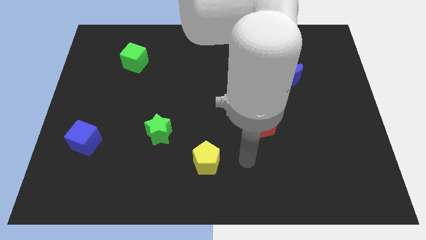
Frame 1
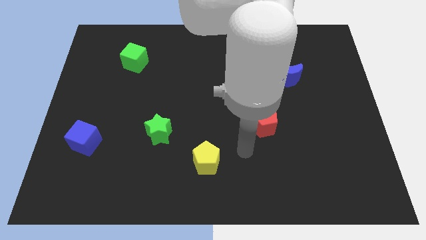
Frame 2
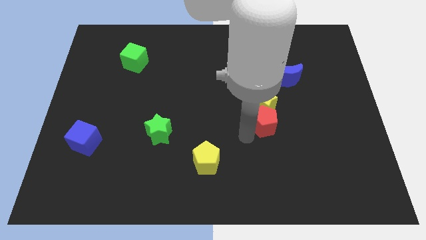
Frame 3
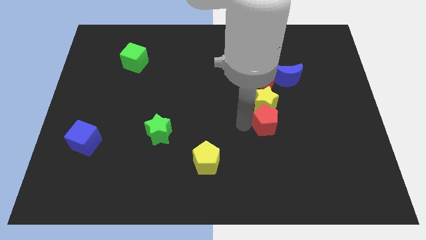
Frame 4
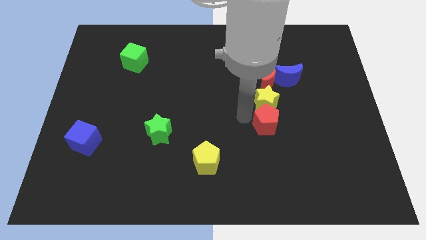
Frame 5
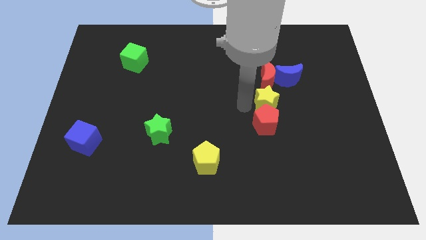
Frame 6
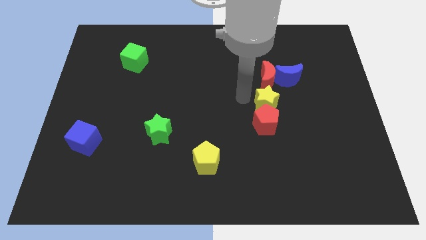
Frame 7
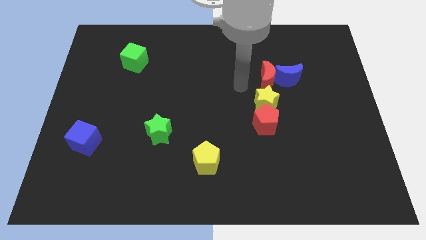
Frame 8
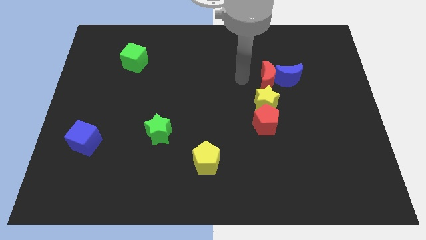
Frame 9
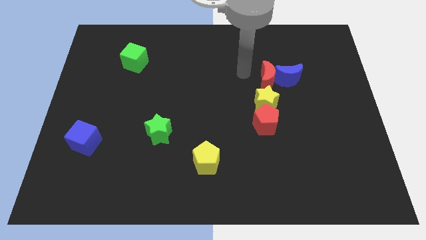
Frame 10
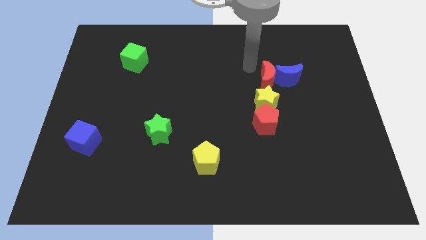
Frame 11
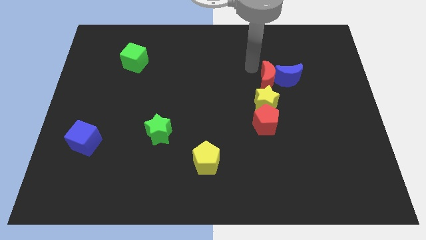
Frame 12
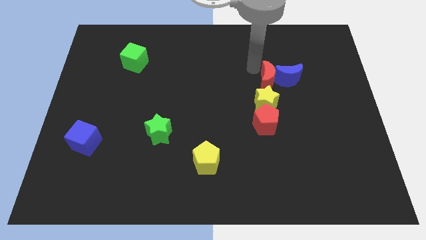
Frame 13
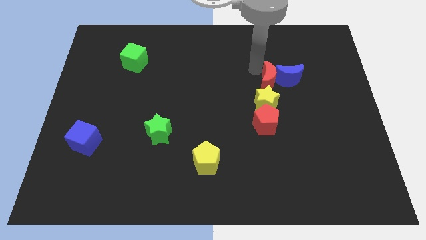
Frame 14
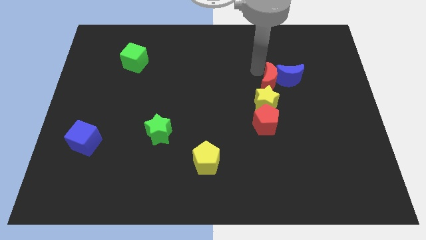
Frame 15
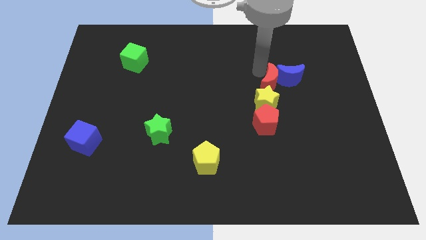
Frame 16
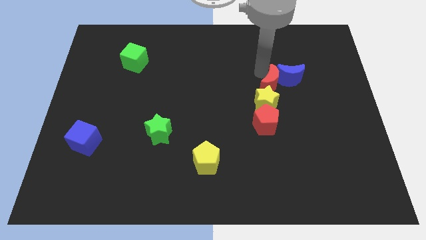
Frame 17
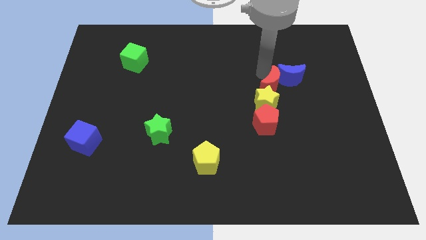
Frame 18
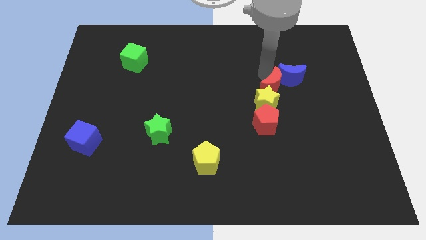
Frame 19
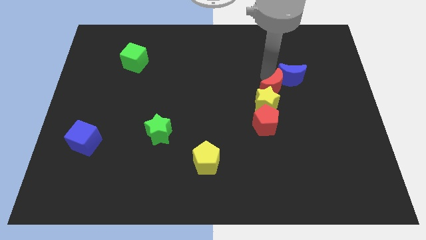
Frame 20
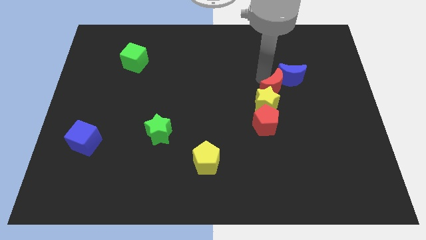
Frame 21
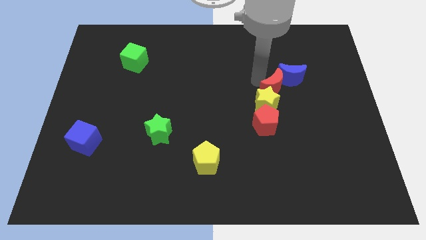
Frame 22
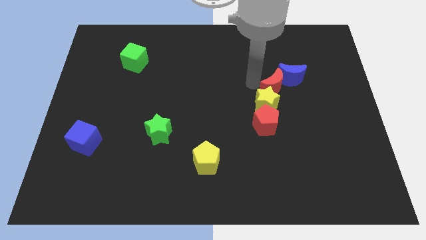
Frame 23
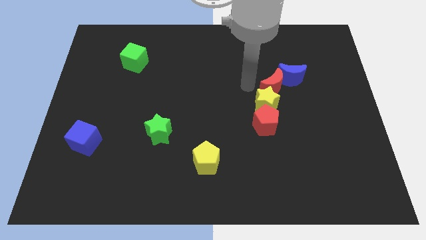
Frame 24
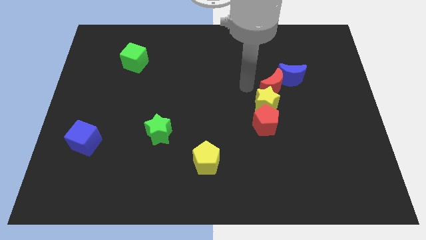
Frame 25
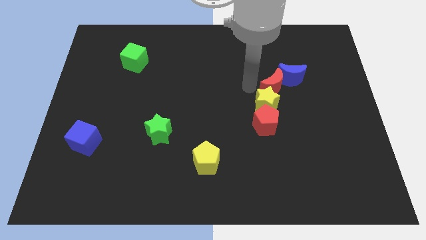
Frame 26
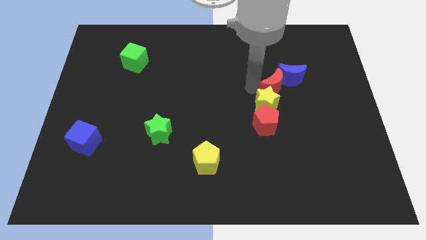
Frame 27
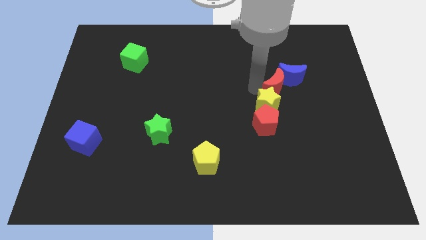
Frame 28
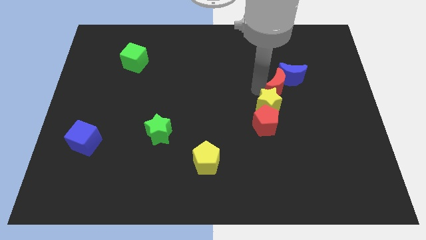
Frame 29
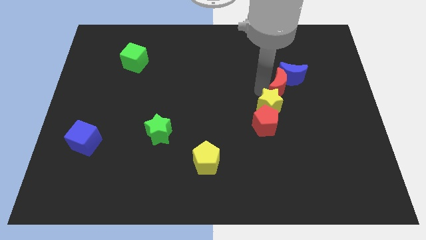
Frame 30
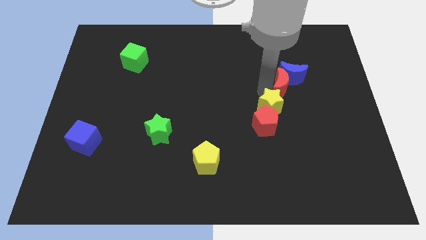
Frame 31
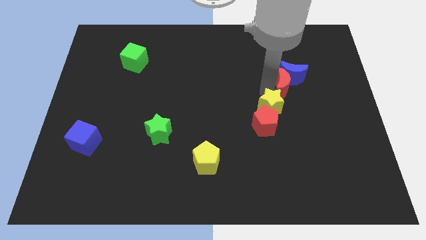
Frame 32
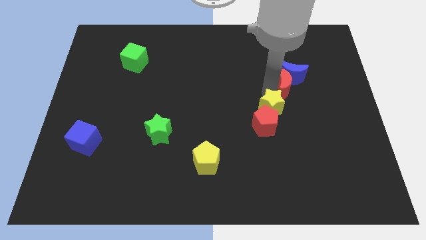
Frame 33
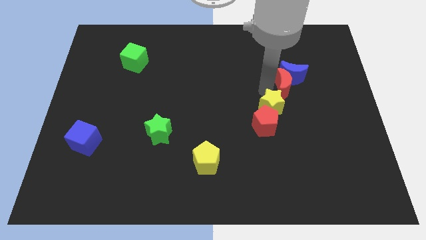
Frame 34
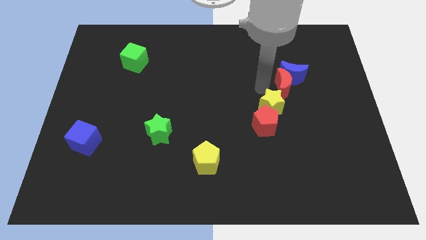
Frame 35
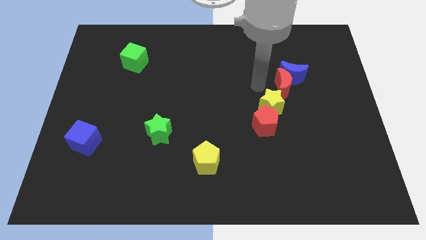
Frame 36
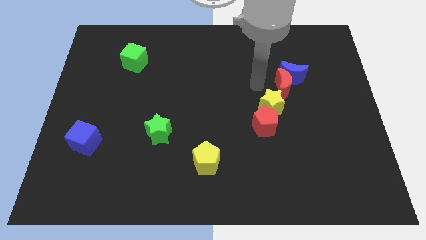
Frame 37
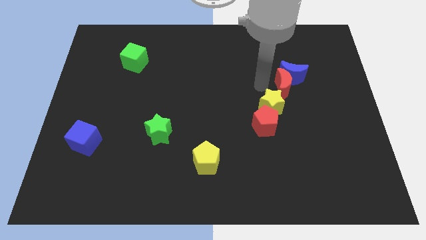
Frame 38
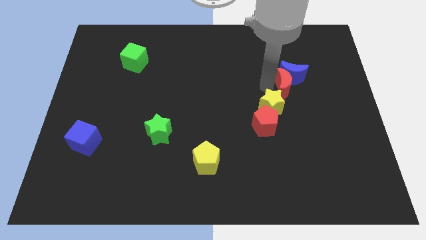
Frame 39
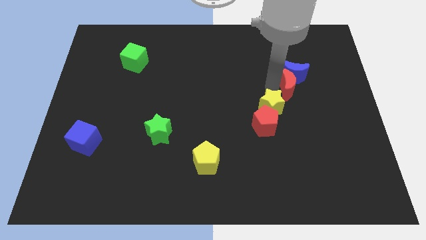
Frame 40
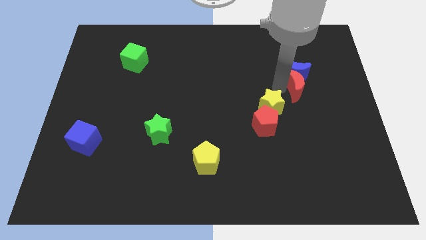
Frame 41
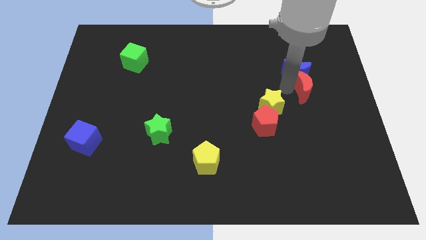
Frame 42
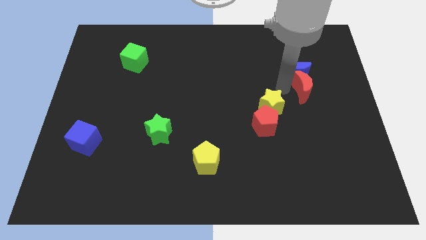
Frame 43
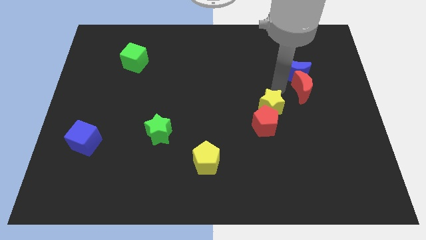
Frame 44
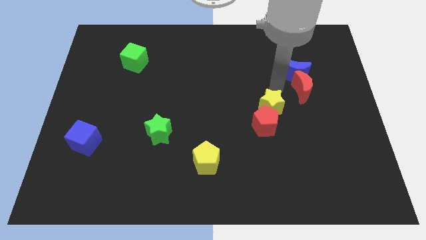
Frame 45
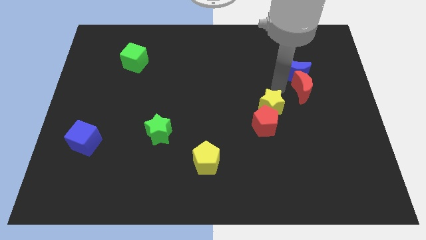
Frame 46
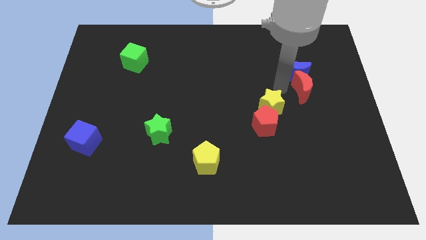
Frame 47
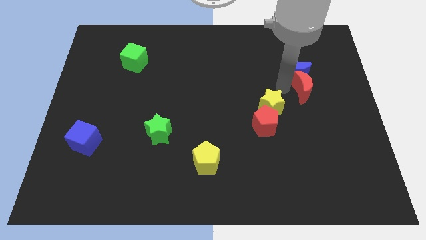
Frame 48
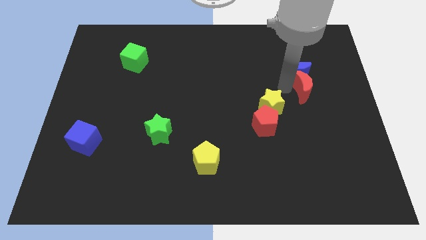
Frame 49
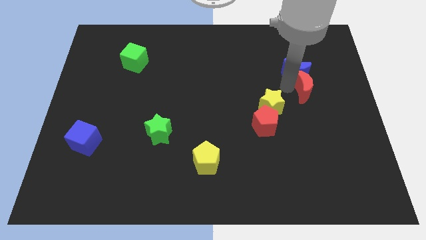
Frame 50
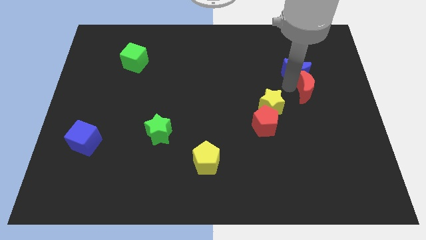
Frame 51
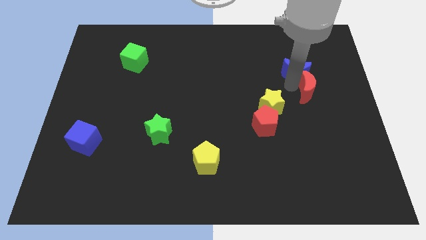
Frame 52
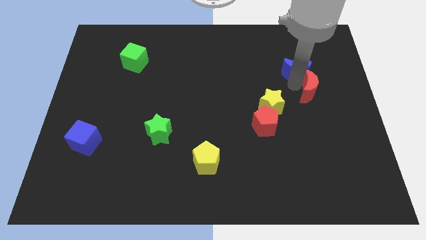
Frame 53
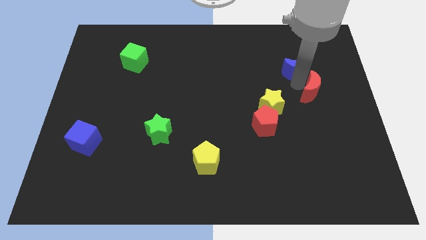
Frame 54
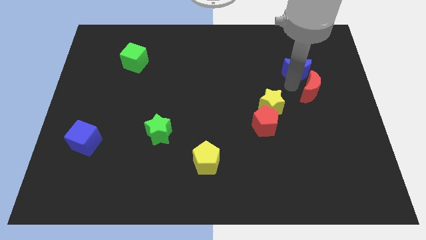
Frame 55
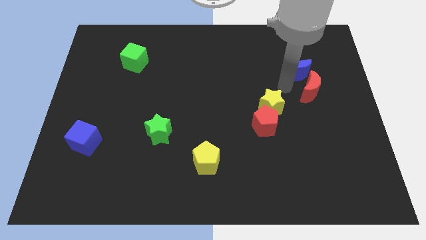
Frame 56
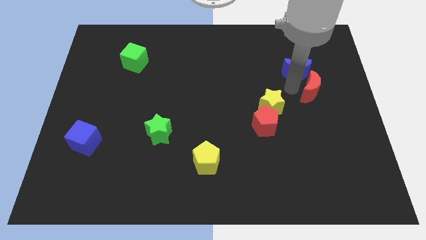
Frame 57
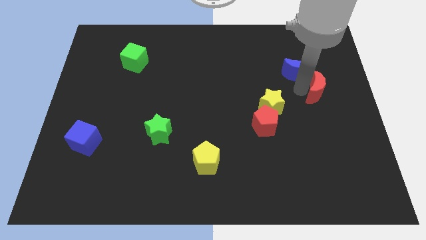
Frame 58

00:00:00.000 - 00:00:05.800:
put the red moon to the right side
